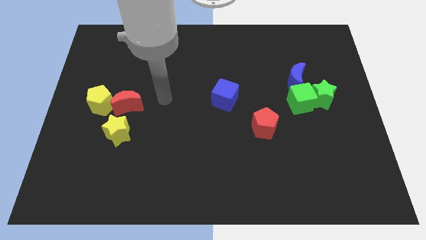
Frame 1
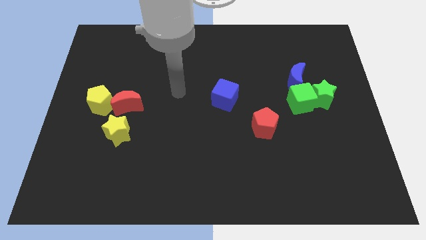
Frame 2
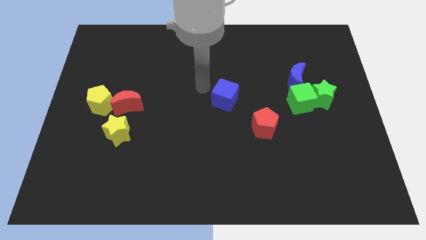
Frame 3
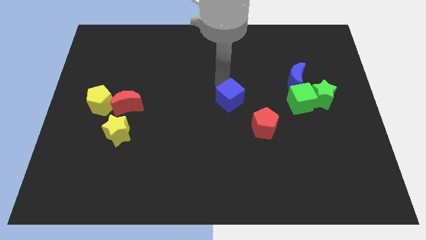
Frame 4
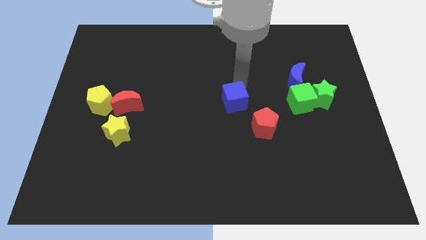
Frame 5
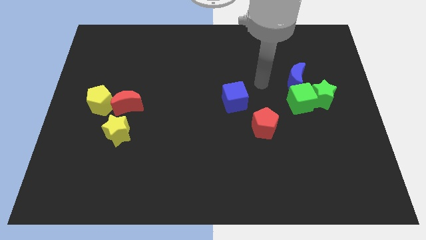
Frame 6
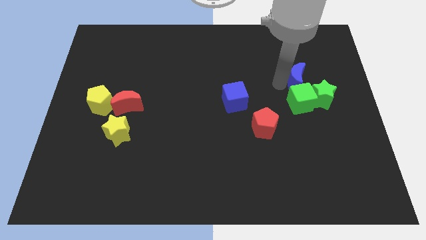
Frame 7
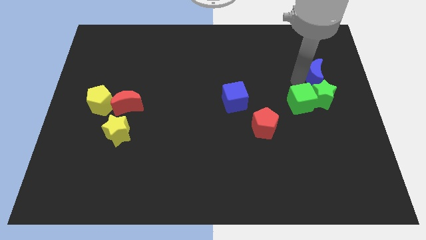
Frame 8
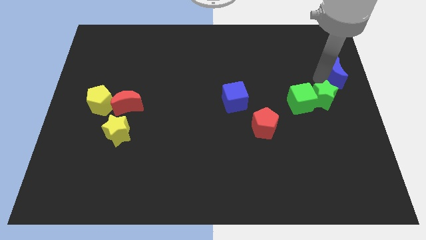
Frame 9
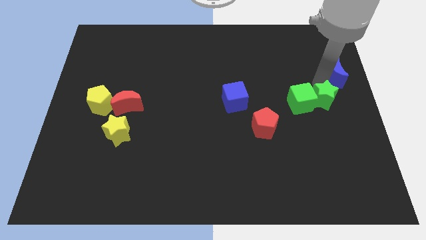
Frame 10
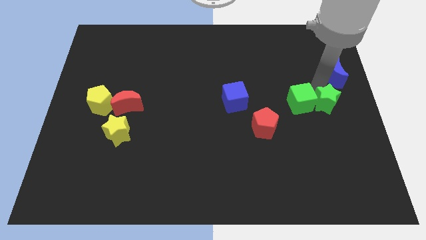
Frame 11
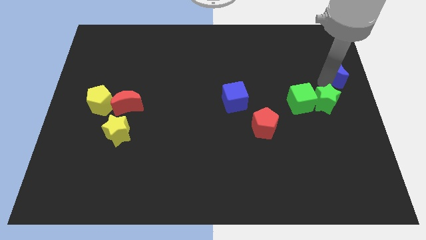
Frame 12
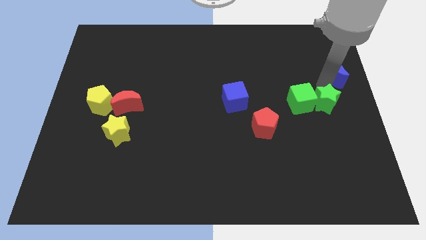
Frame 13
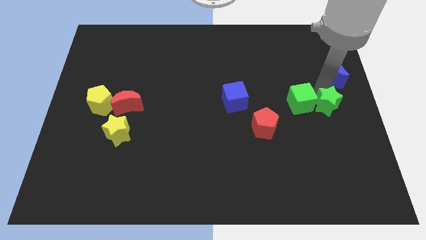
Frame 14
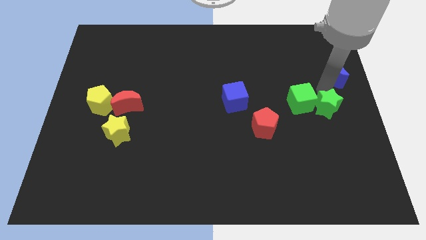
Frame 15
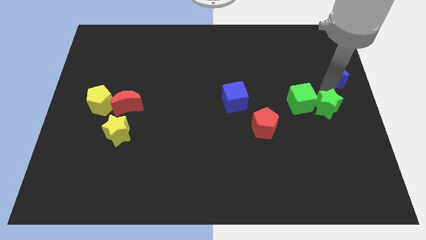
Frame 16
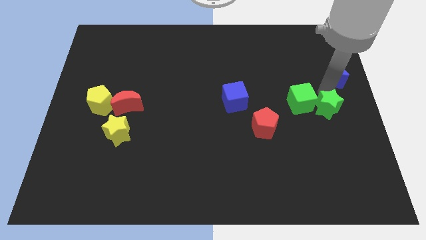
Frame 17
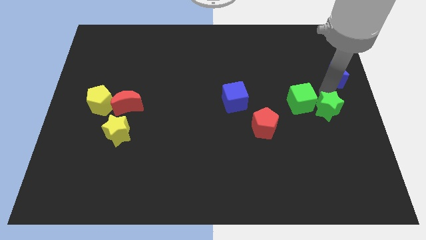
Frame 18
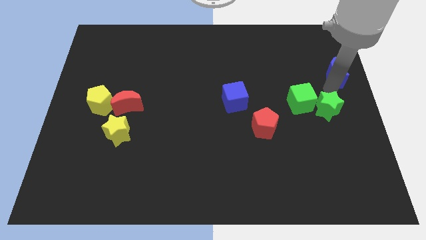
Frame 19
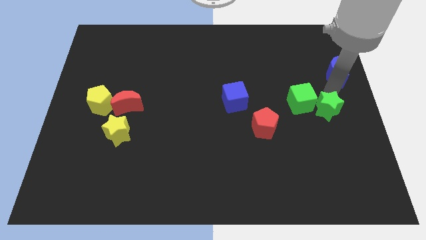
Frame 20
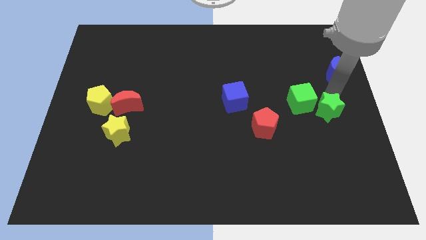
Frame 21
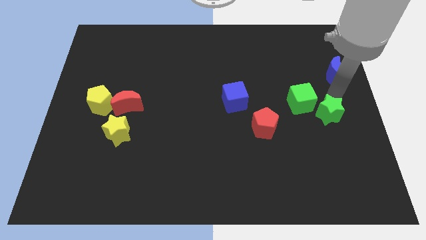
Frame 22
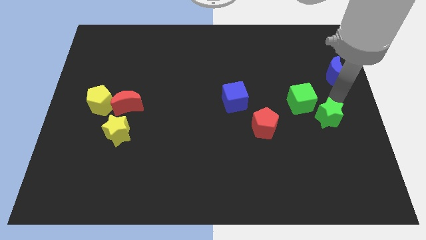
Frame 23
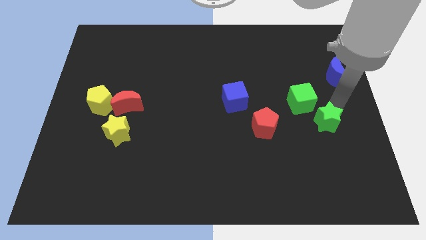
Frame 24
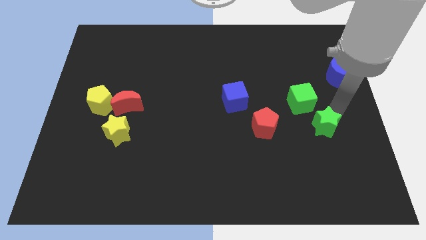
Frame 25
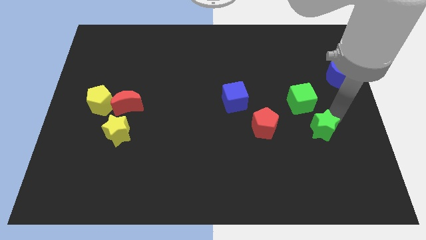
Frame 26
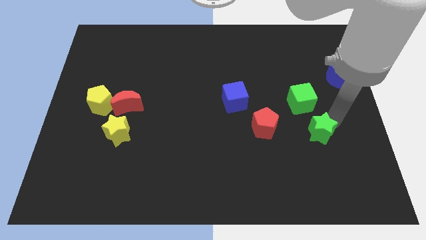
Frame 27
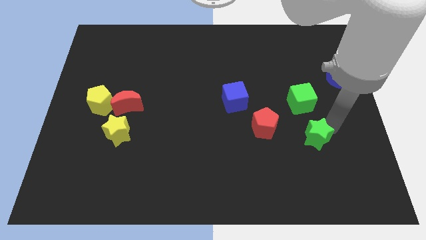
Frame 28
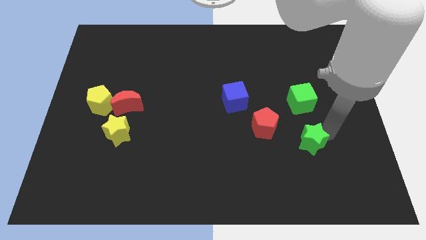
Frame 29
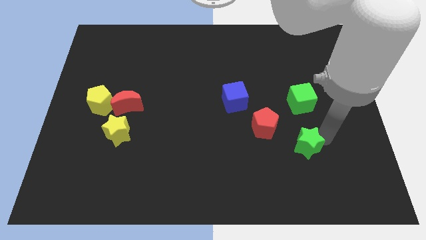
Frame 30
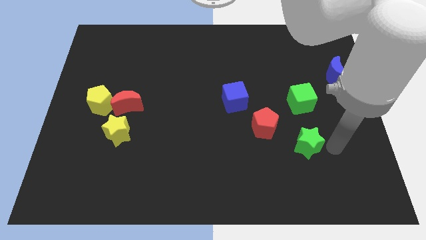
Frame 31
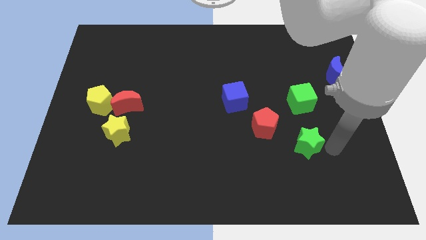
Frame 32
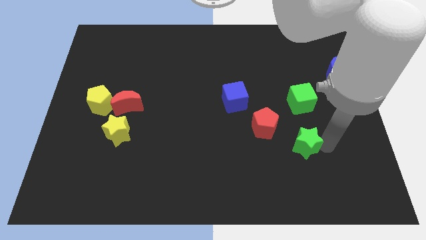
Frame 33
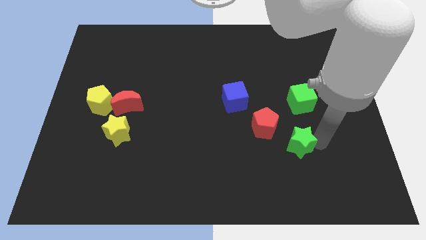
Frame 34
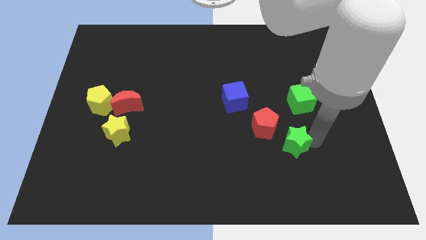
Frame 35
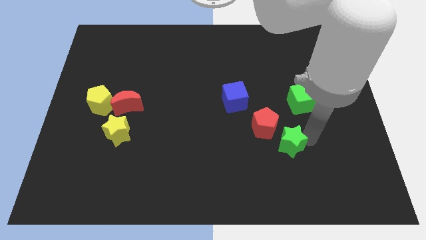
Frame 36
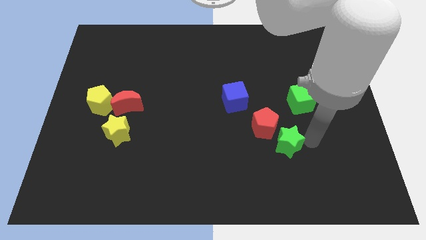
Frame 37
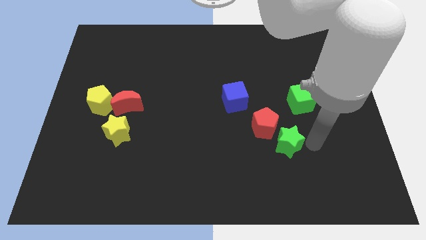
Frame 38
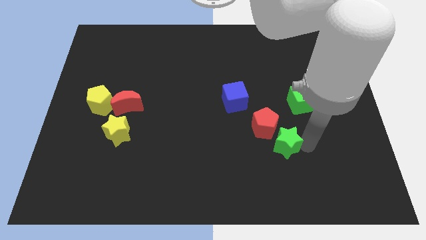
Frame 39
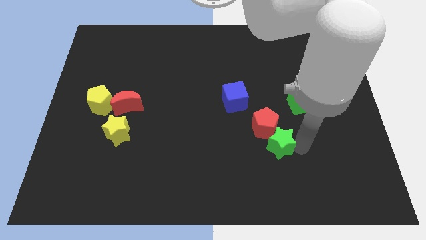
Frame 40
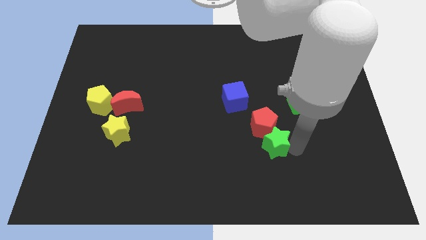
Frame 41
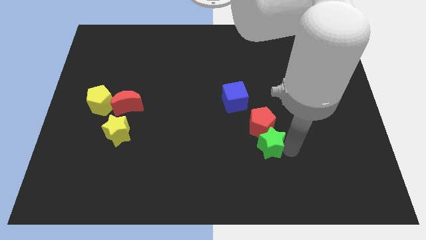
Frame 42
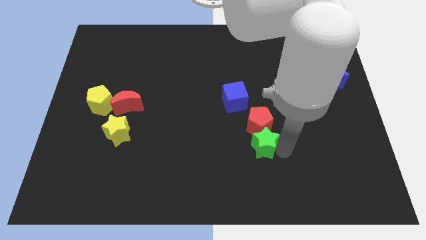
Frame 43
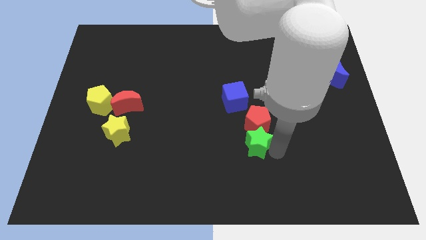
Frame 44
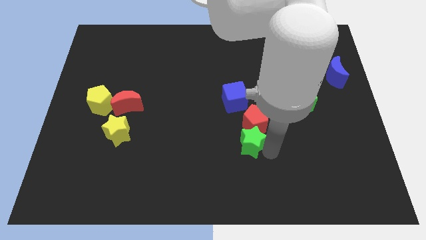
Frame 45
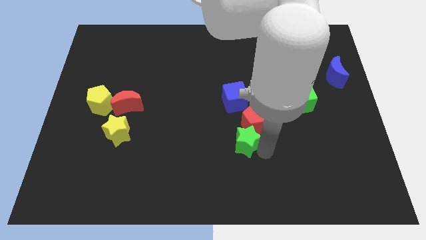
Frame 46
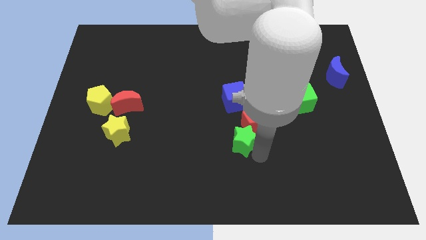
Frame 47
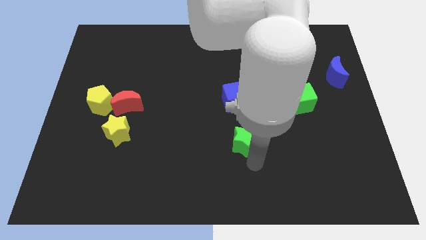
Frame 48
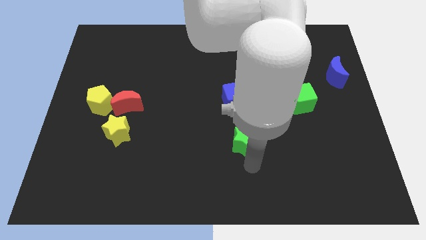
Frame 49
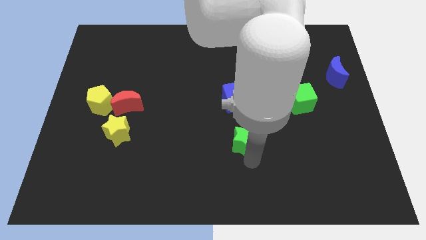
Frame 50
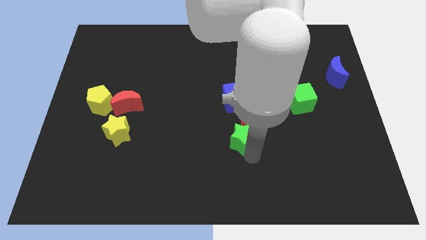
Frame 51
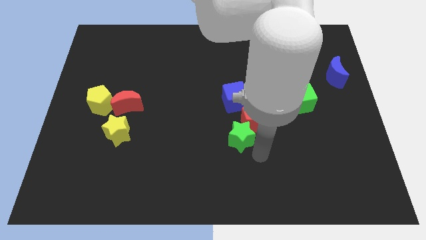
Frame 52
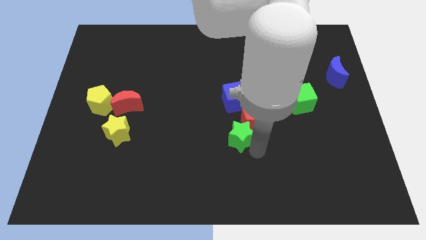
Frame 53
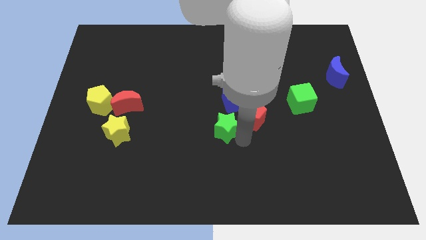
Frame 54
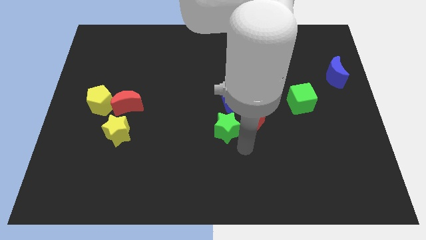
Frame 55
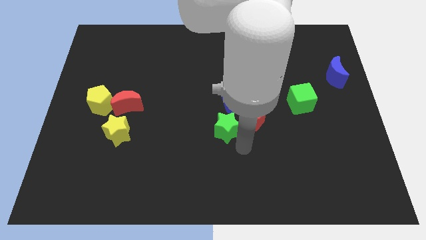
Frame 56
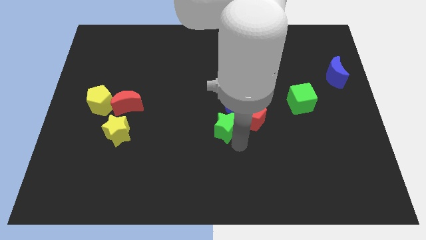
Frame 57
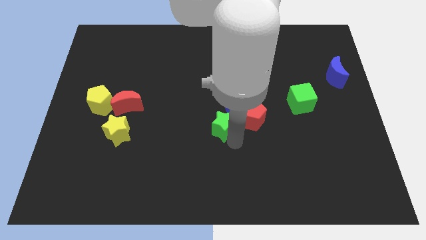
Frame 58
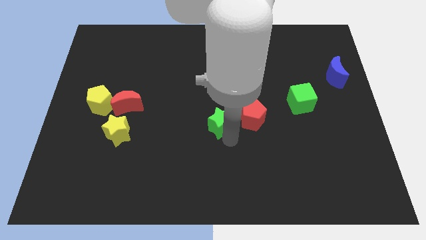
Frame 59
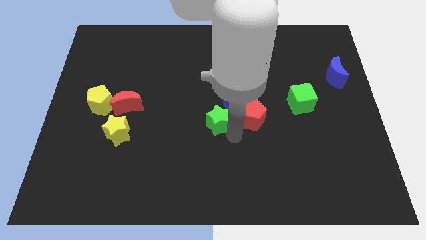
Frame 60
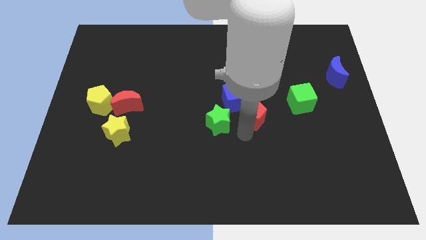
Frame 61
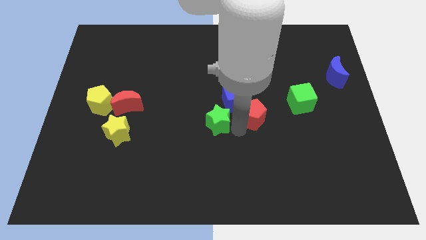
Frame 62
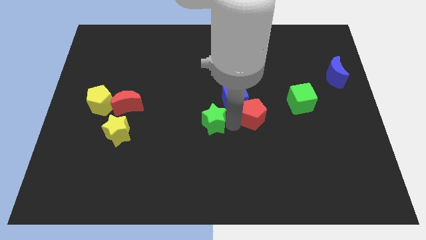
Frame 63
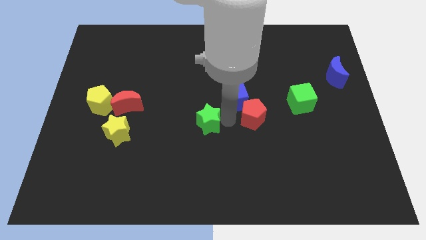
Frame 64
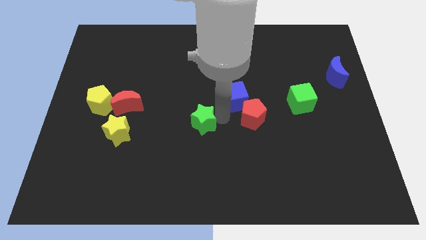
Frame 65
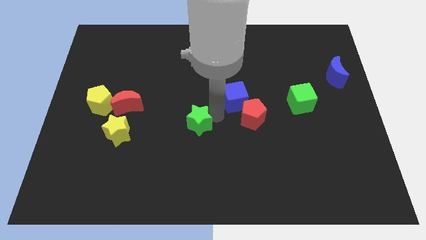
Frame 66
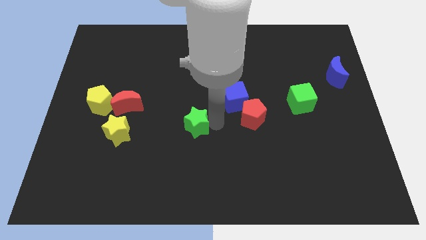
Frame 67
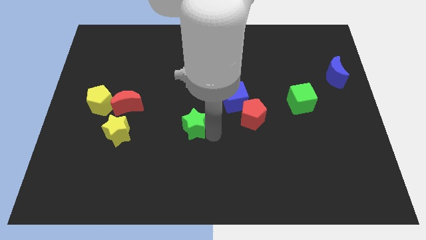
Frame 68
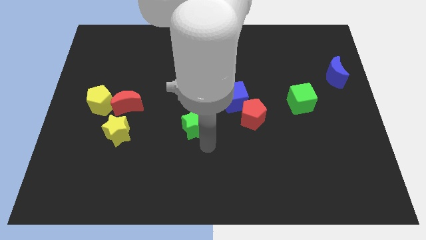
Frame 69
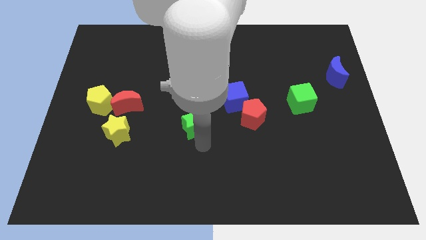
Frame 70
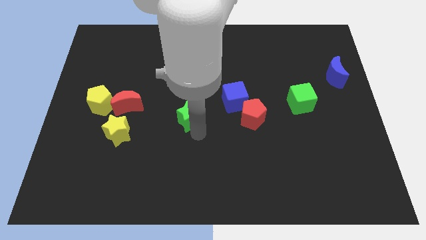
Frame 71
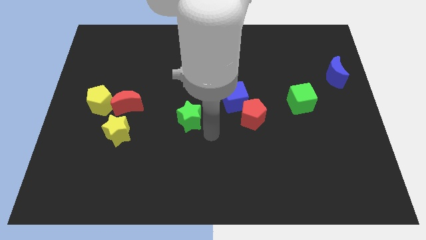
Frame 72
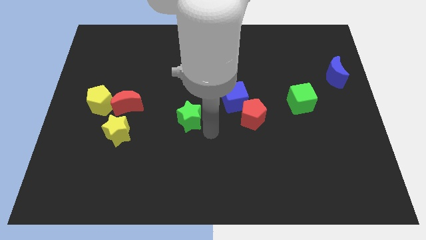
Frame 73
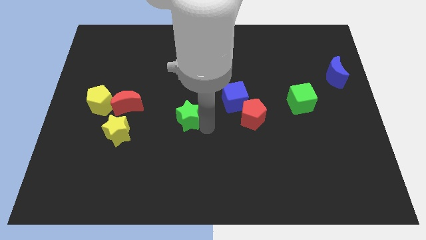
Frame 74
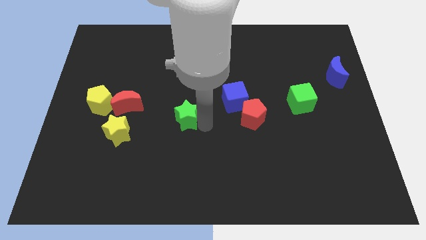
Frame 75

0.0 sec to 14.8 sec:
move the green star to the right side of the red moon

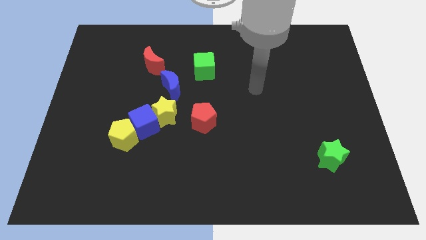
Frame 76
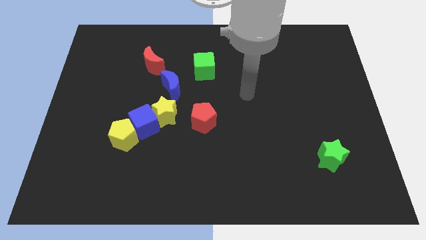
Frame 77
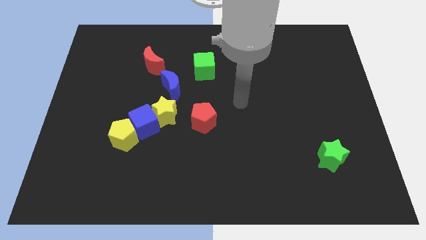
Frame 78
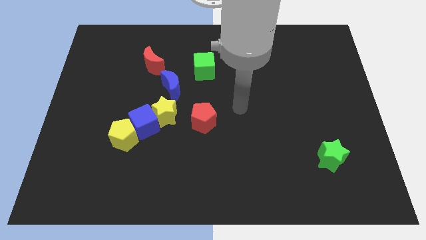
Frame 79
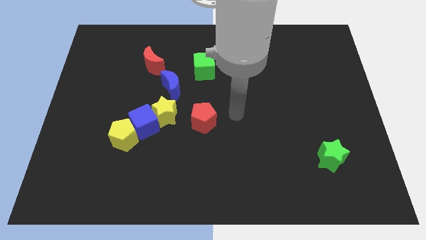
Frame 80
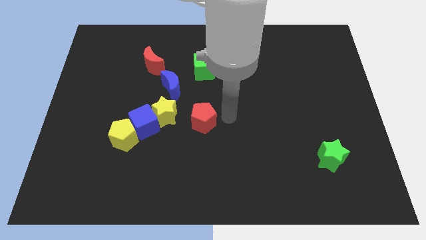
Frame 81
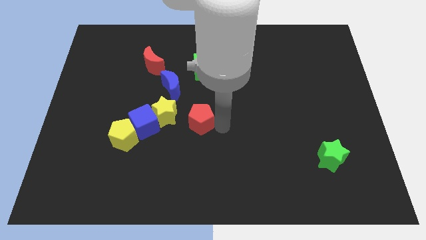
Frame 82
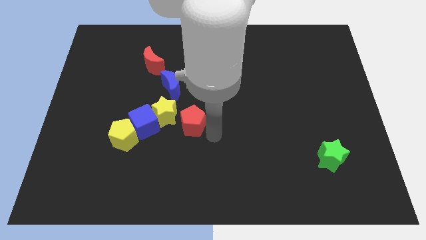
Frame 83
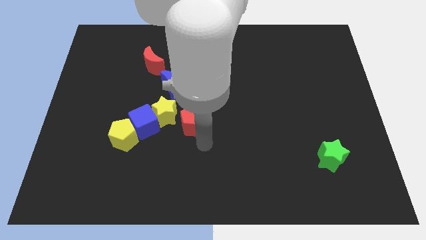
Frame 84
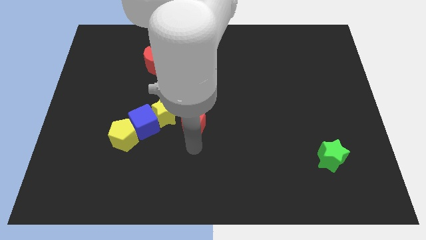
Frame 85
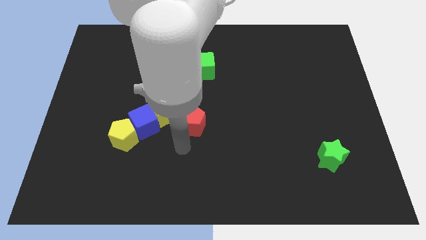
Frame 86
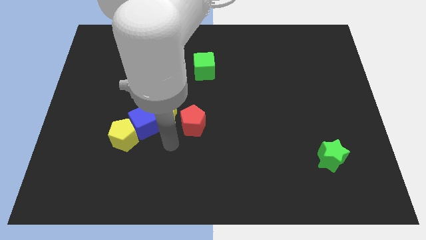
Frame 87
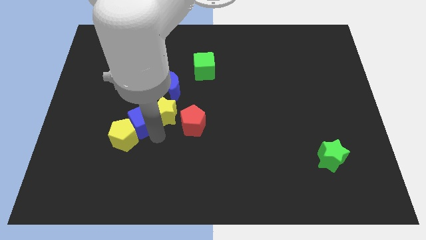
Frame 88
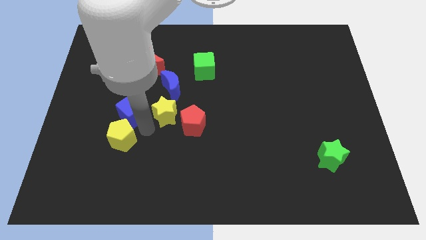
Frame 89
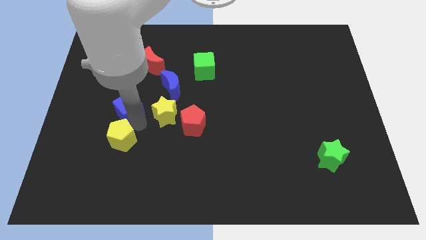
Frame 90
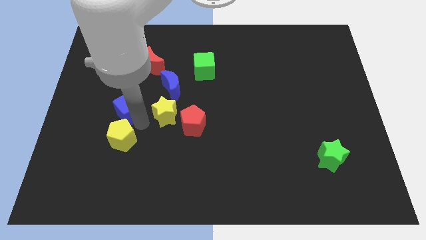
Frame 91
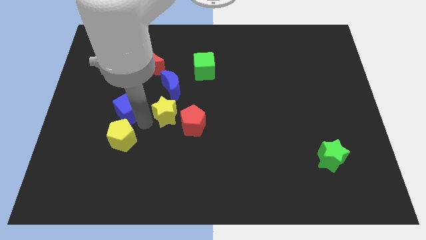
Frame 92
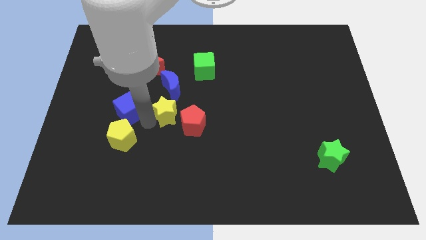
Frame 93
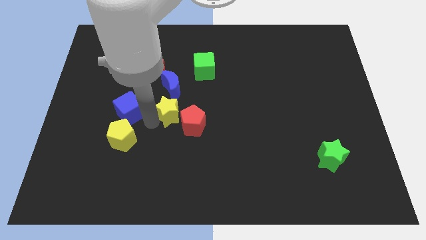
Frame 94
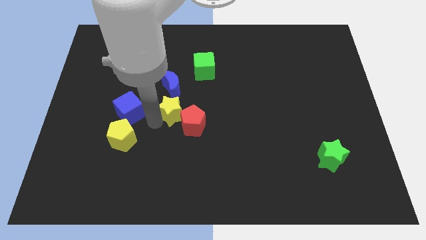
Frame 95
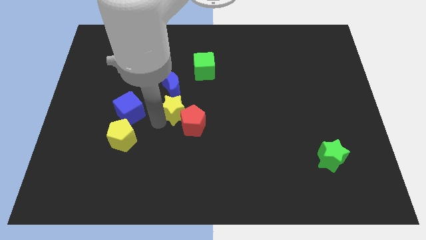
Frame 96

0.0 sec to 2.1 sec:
put the yellow star to the bottom right side of the blue moon
